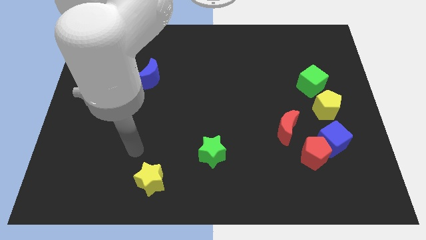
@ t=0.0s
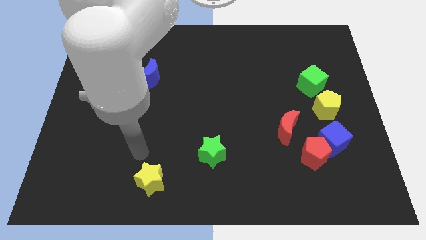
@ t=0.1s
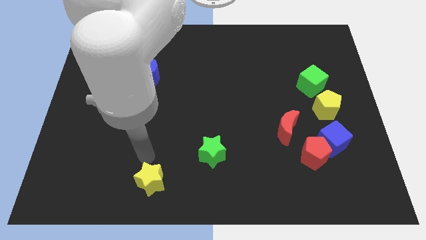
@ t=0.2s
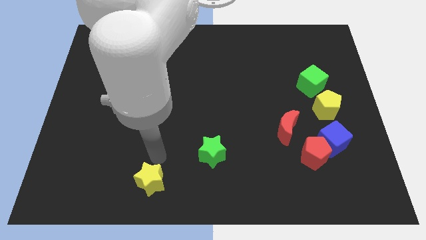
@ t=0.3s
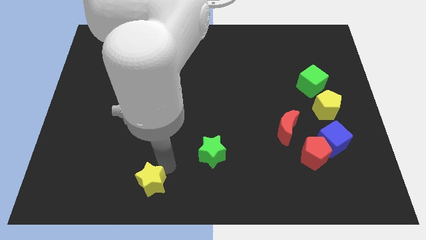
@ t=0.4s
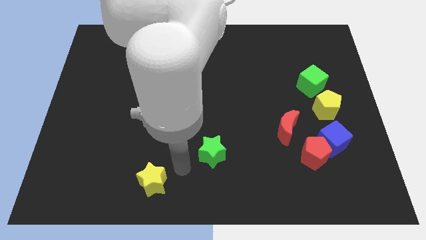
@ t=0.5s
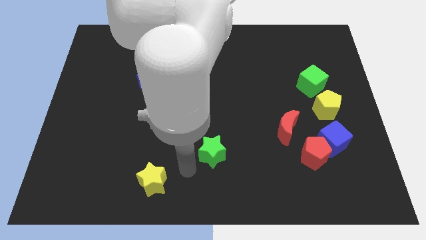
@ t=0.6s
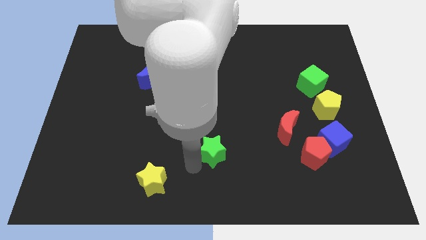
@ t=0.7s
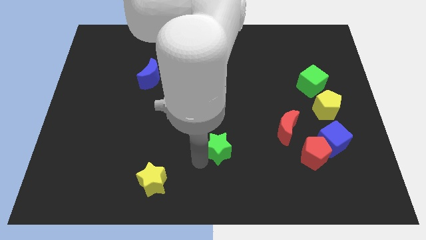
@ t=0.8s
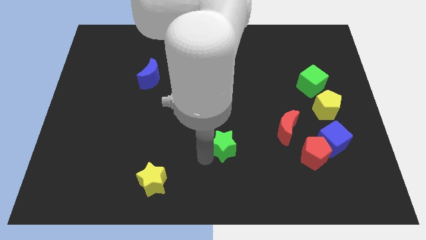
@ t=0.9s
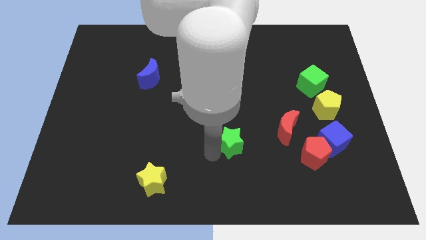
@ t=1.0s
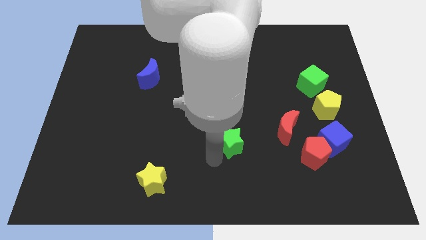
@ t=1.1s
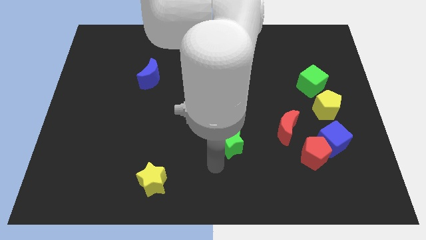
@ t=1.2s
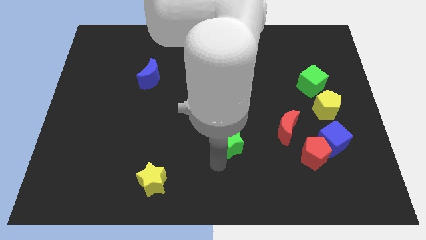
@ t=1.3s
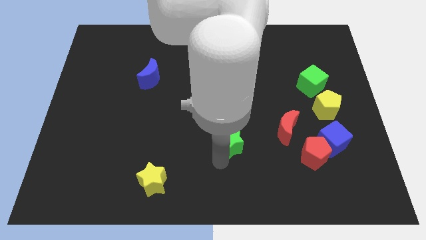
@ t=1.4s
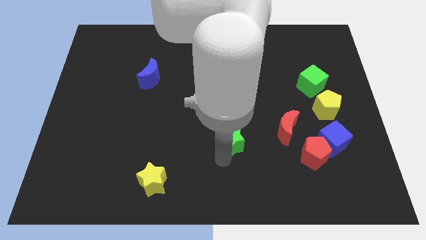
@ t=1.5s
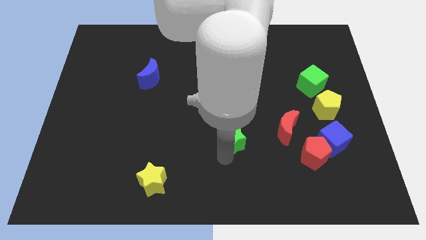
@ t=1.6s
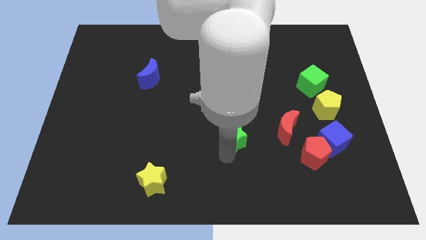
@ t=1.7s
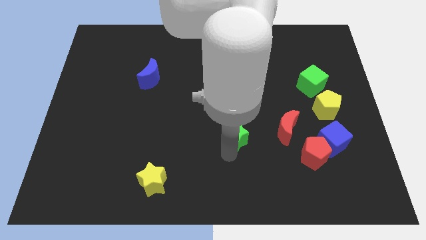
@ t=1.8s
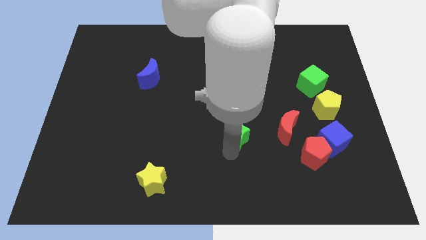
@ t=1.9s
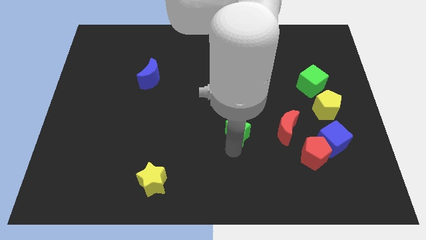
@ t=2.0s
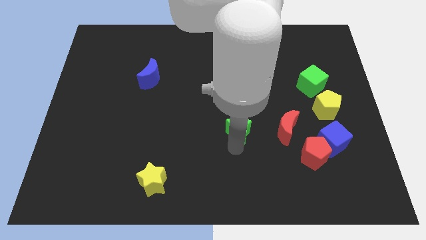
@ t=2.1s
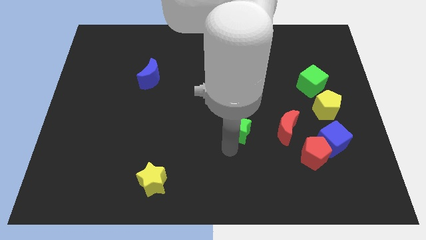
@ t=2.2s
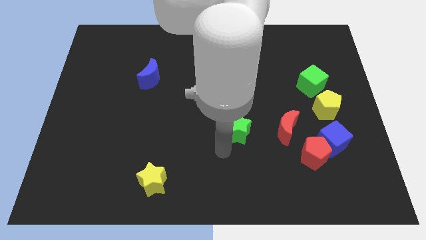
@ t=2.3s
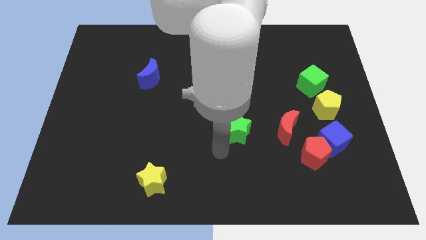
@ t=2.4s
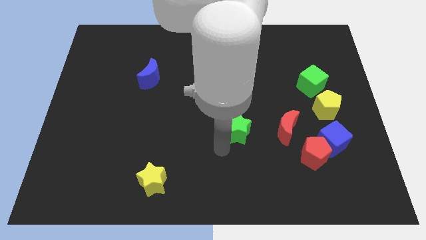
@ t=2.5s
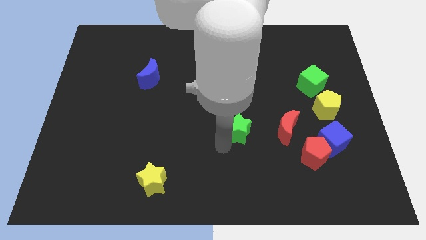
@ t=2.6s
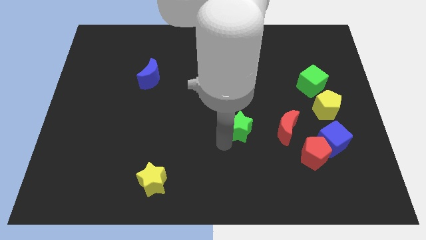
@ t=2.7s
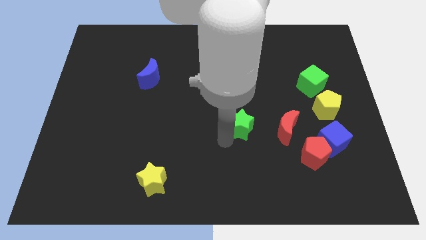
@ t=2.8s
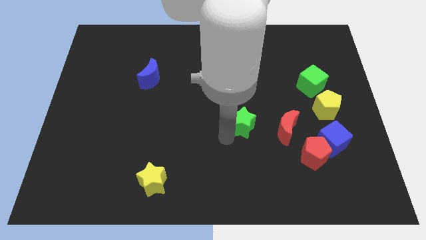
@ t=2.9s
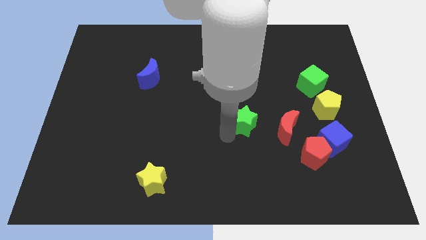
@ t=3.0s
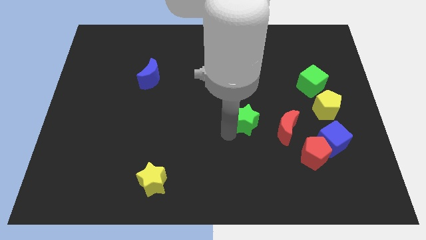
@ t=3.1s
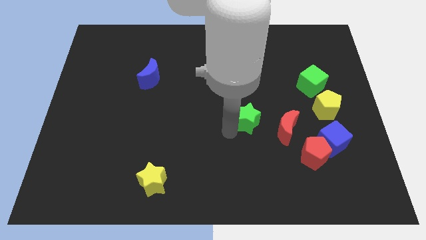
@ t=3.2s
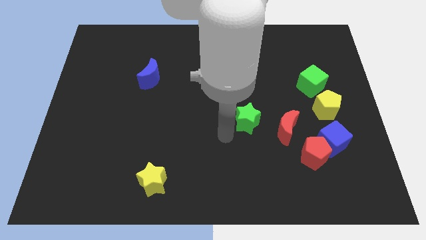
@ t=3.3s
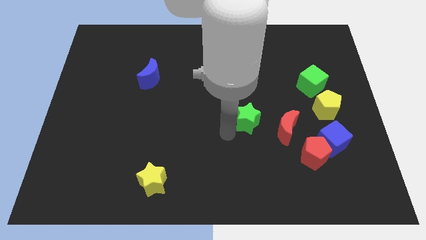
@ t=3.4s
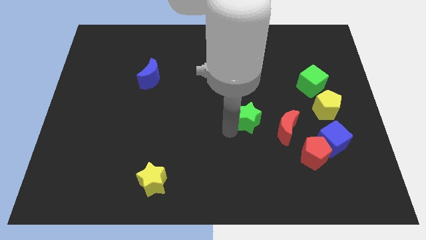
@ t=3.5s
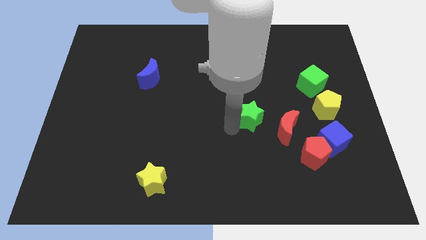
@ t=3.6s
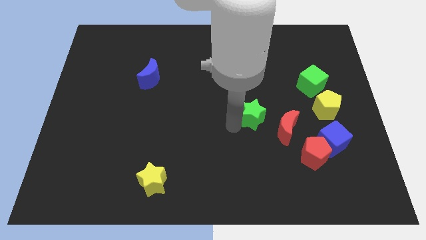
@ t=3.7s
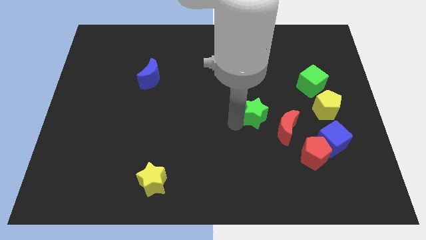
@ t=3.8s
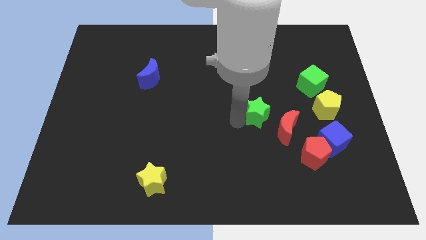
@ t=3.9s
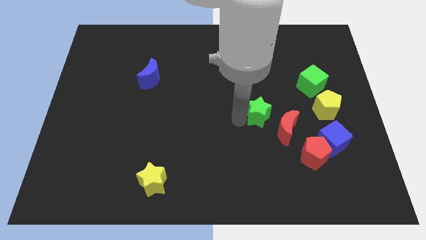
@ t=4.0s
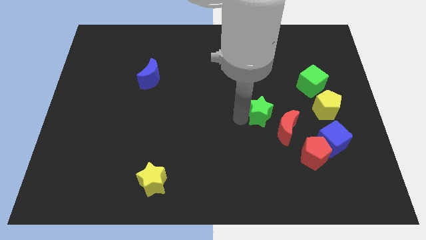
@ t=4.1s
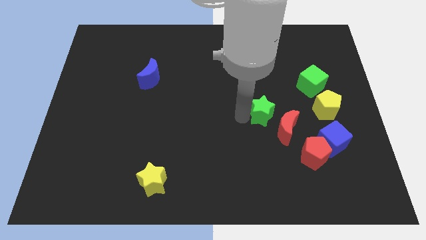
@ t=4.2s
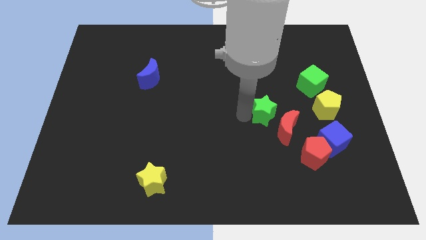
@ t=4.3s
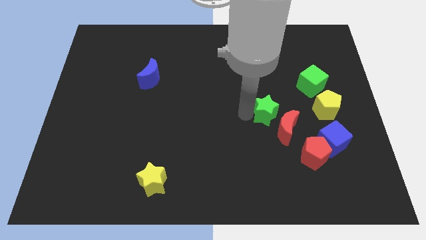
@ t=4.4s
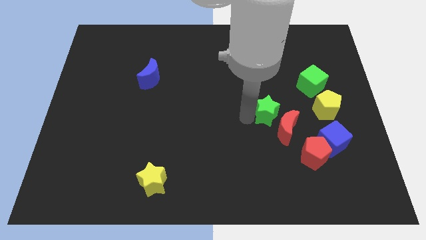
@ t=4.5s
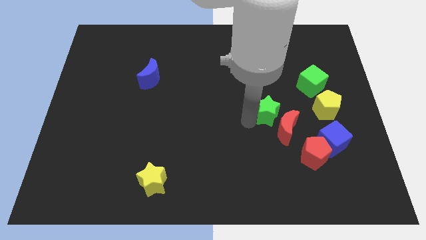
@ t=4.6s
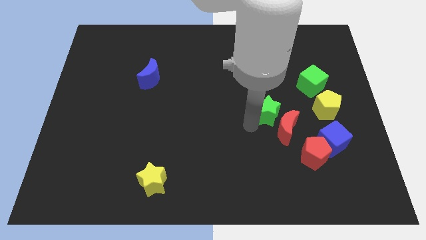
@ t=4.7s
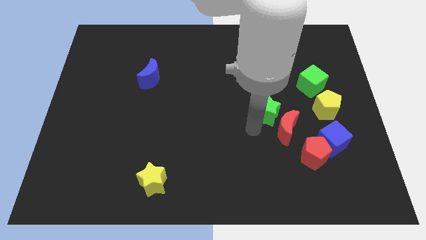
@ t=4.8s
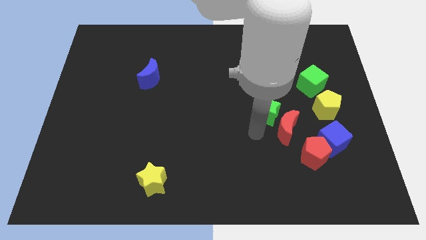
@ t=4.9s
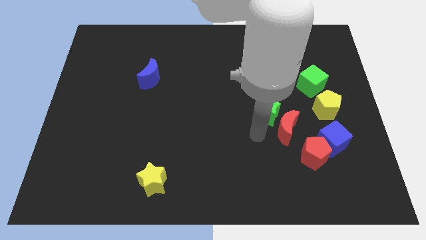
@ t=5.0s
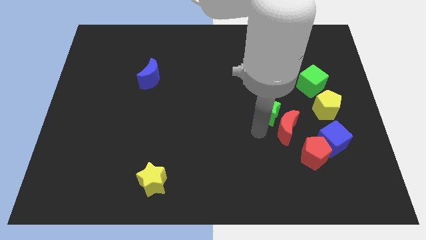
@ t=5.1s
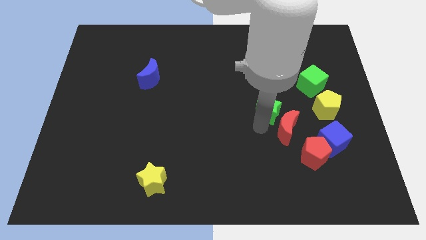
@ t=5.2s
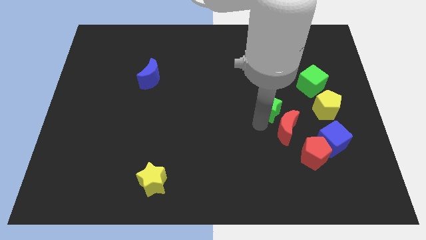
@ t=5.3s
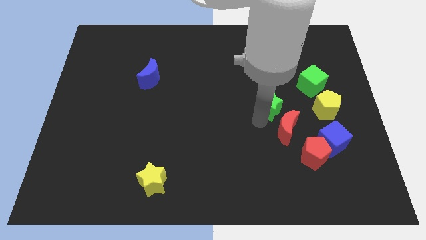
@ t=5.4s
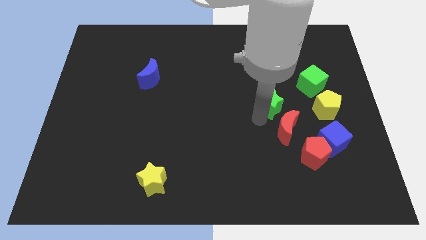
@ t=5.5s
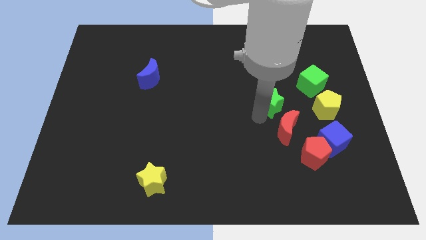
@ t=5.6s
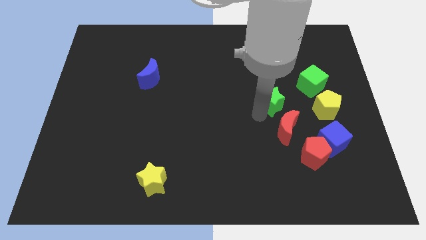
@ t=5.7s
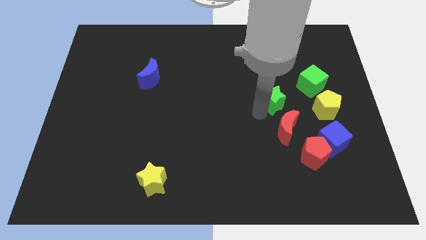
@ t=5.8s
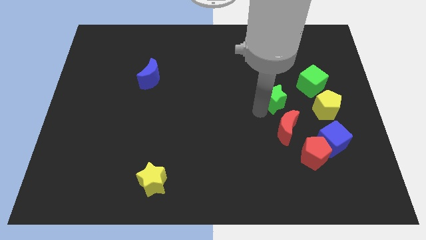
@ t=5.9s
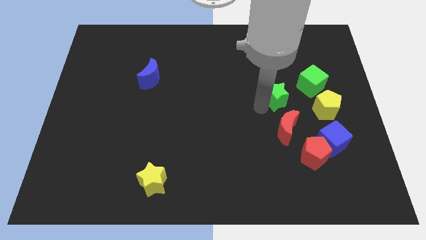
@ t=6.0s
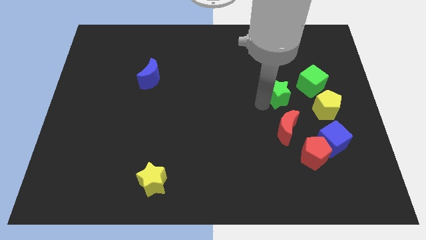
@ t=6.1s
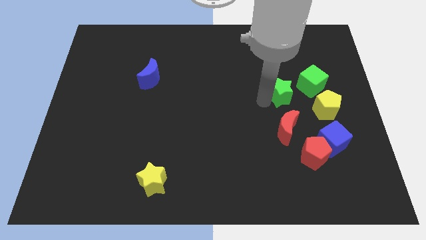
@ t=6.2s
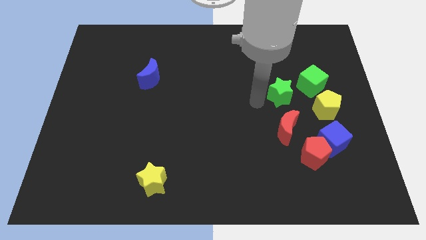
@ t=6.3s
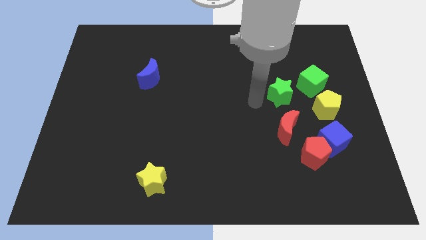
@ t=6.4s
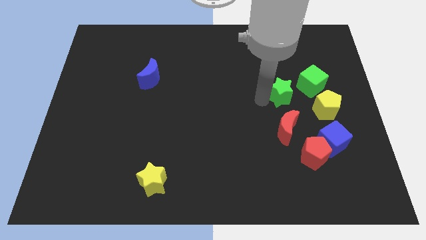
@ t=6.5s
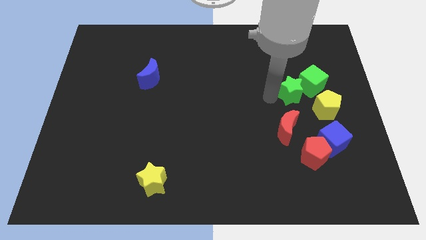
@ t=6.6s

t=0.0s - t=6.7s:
push the green star to the green cube

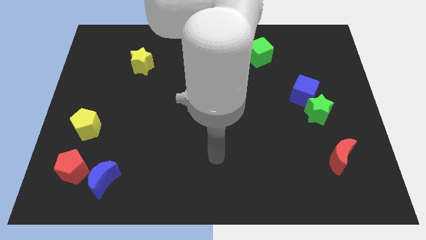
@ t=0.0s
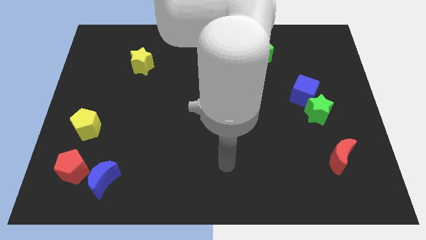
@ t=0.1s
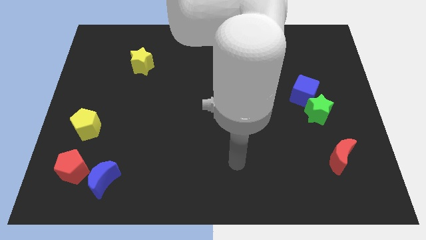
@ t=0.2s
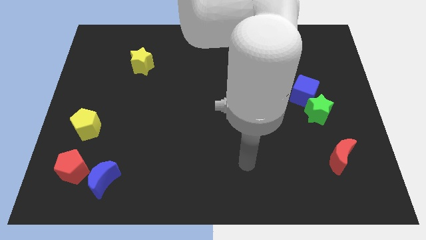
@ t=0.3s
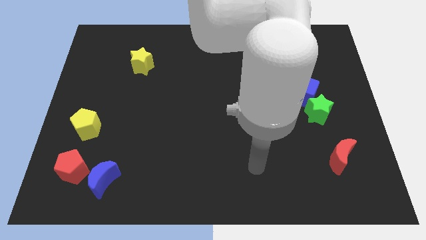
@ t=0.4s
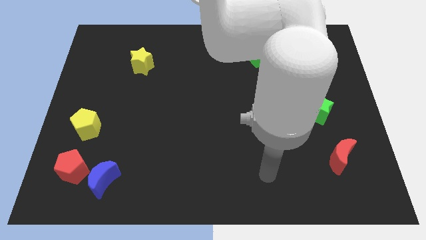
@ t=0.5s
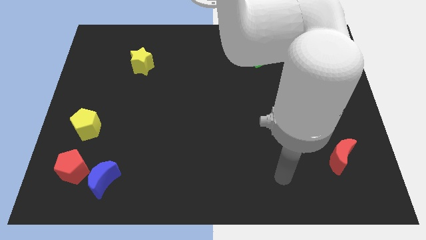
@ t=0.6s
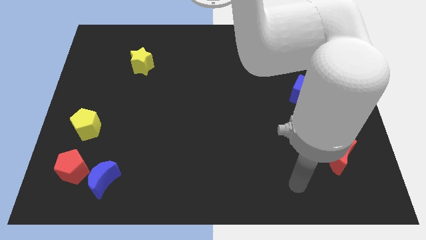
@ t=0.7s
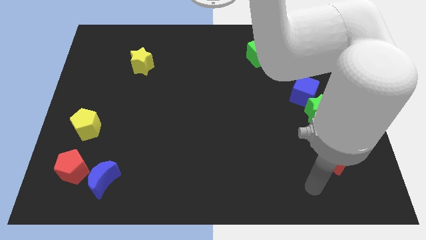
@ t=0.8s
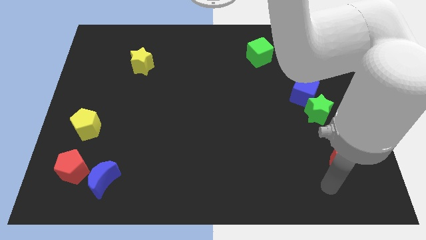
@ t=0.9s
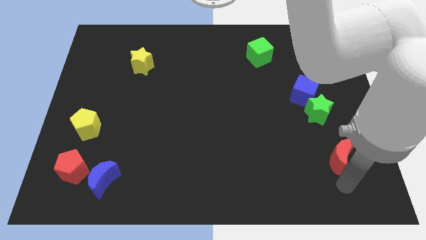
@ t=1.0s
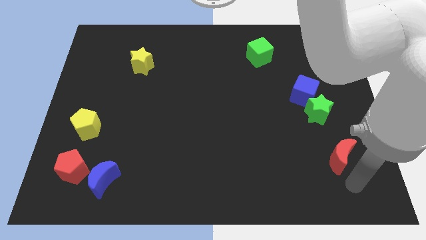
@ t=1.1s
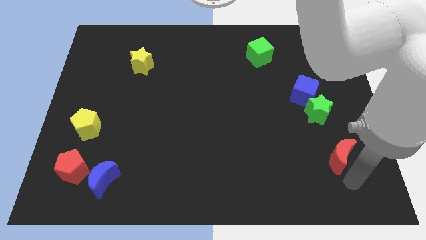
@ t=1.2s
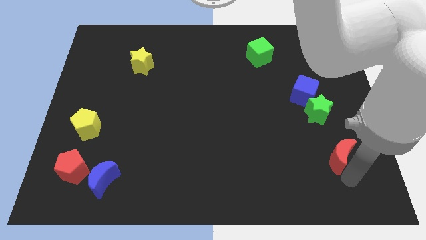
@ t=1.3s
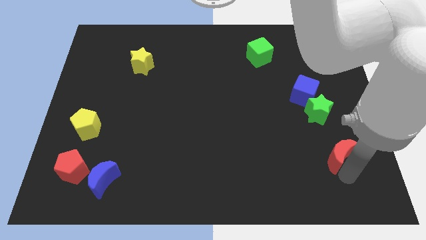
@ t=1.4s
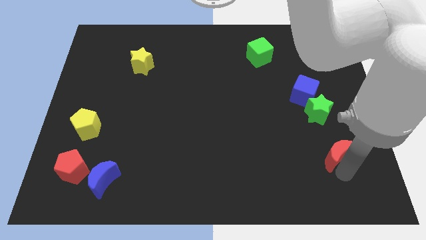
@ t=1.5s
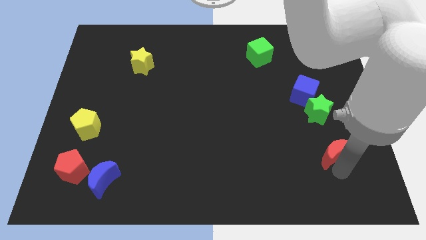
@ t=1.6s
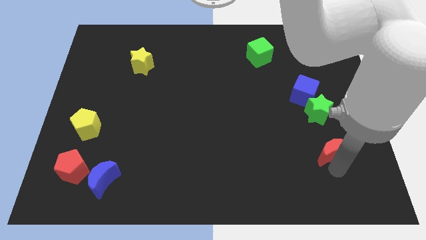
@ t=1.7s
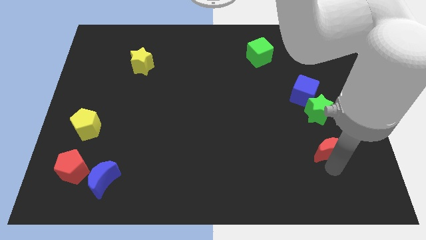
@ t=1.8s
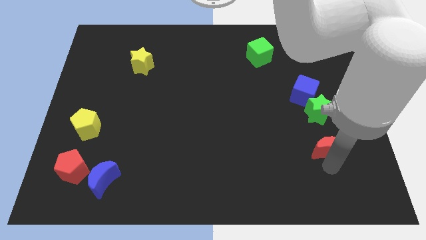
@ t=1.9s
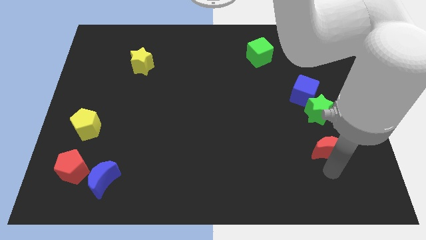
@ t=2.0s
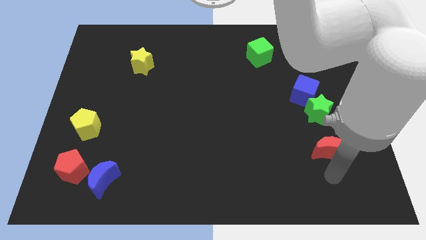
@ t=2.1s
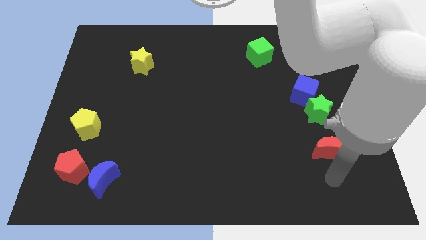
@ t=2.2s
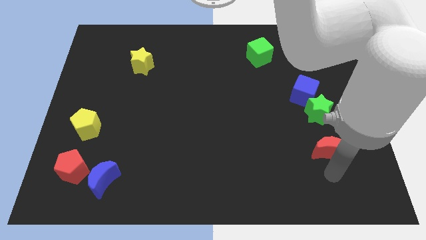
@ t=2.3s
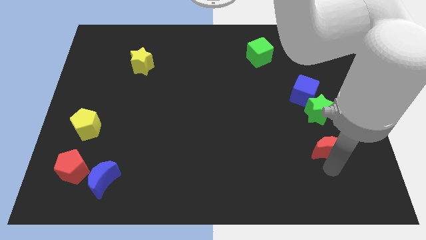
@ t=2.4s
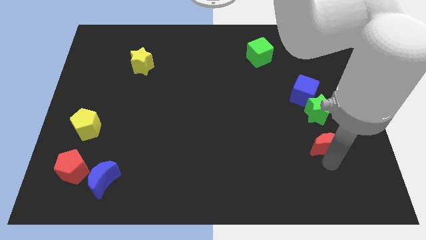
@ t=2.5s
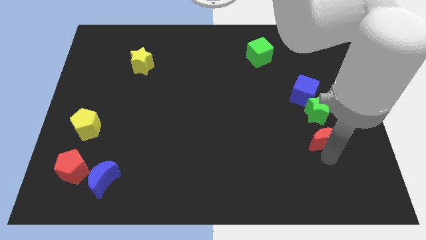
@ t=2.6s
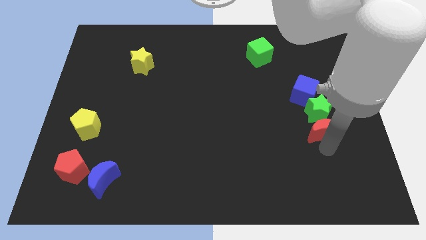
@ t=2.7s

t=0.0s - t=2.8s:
move the red moon next to the green star
